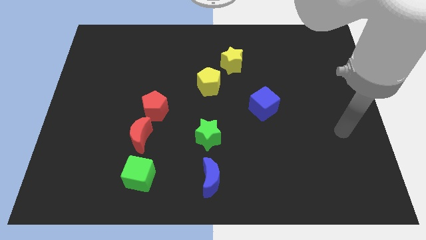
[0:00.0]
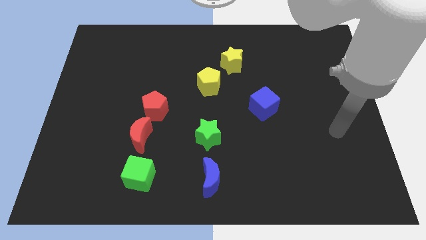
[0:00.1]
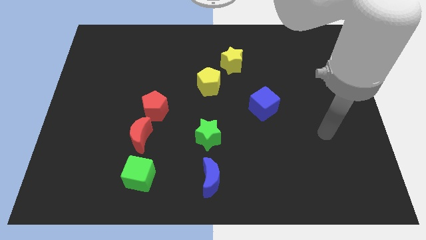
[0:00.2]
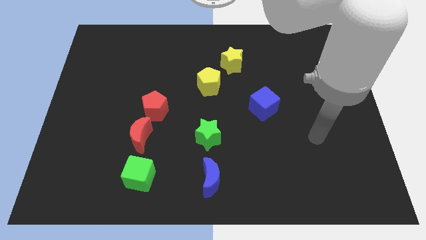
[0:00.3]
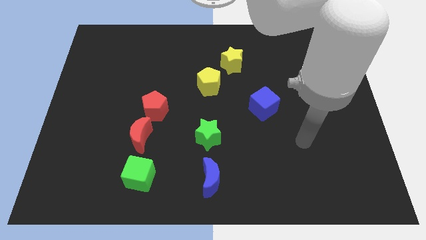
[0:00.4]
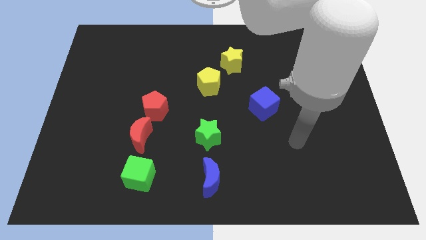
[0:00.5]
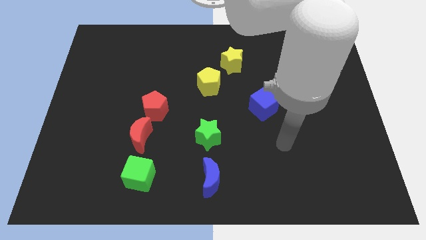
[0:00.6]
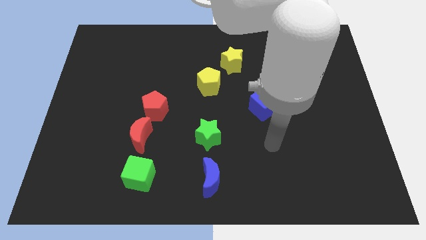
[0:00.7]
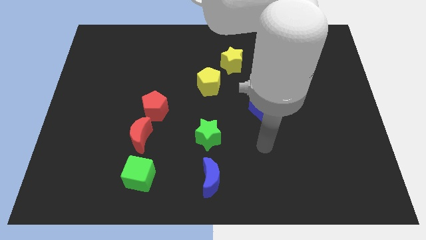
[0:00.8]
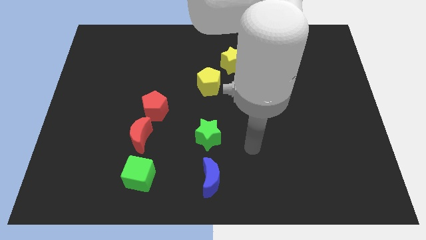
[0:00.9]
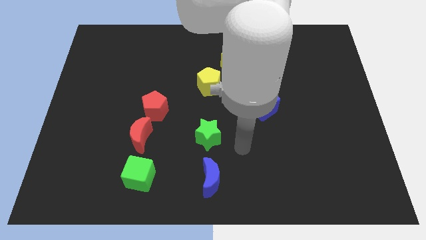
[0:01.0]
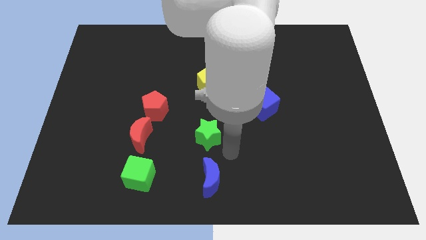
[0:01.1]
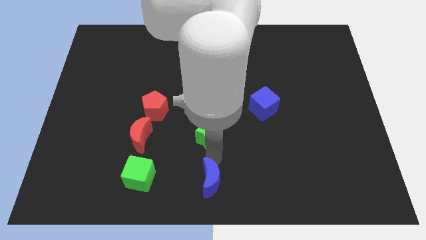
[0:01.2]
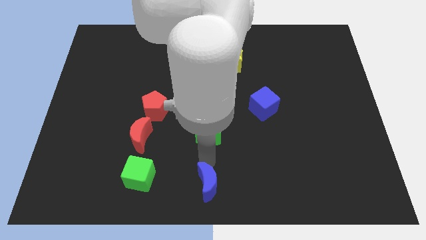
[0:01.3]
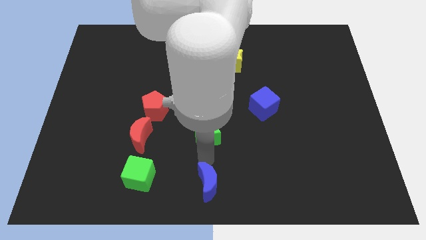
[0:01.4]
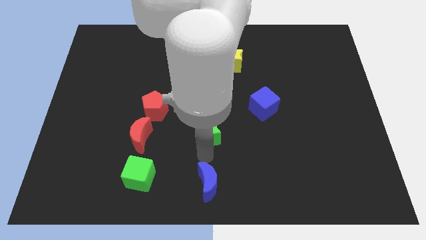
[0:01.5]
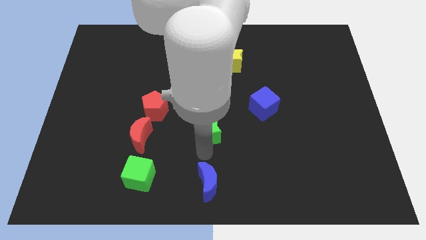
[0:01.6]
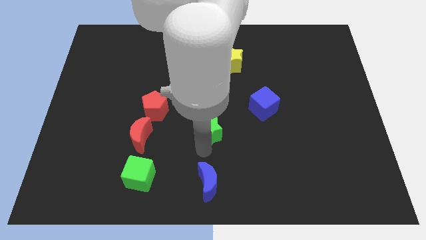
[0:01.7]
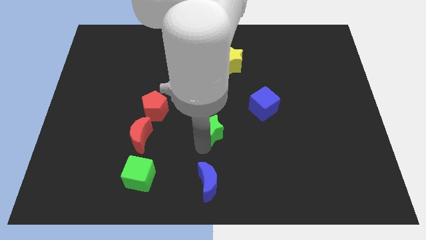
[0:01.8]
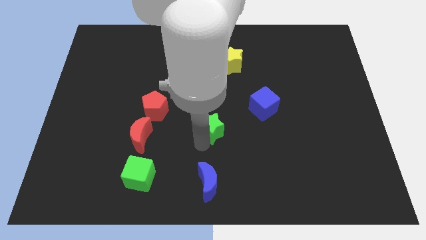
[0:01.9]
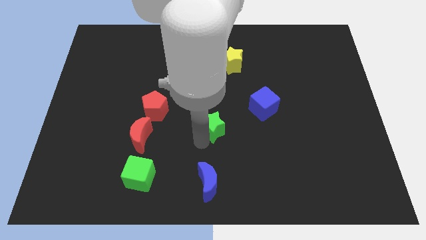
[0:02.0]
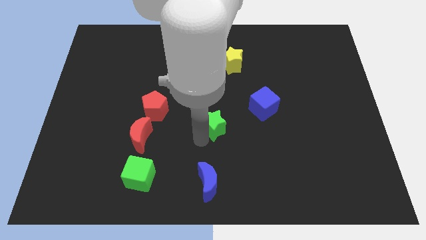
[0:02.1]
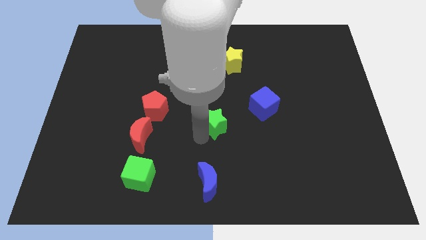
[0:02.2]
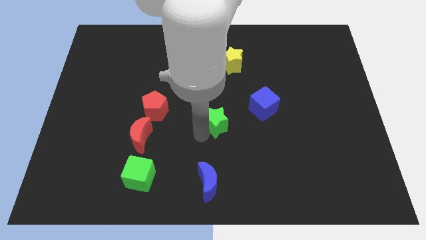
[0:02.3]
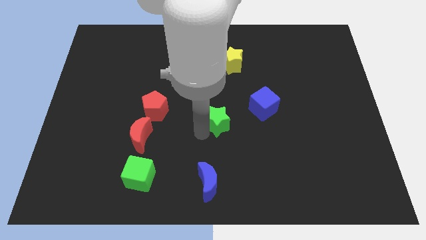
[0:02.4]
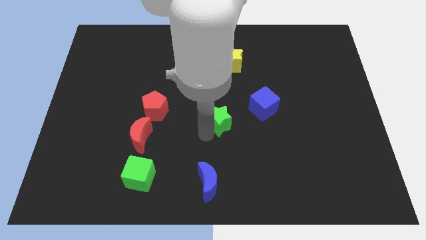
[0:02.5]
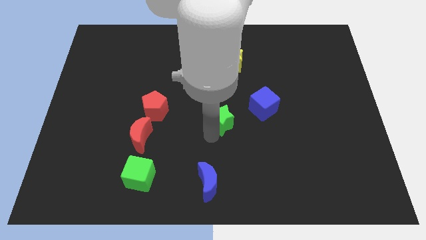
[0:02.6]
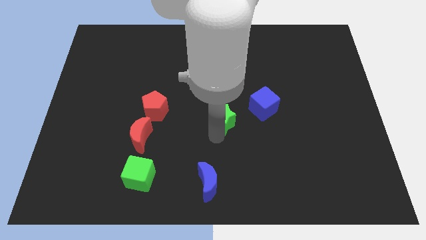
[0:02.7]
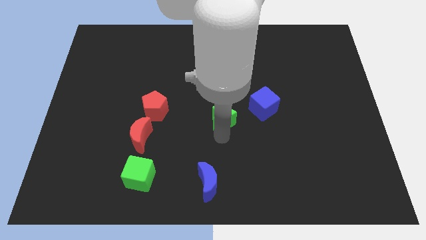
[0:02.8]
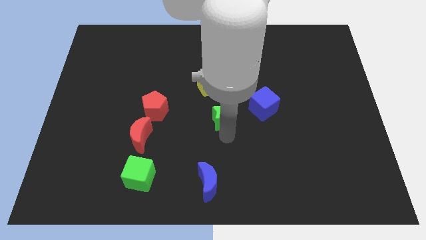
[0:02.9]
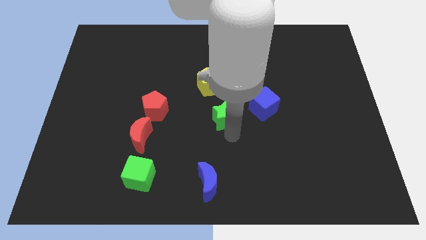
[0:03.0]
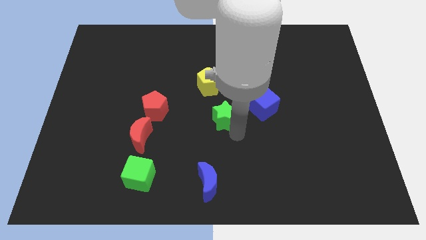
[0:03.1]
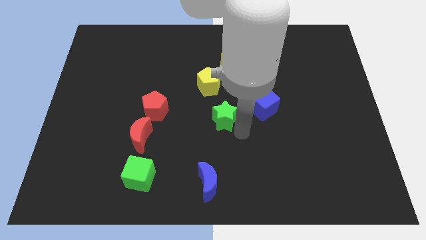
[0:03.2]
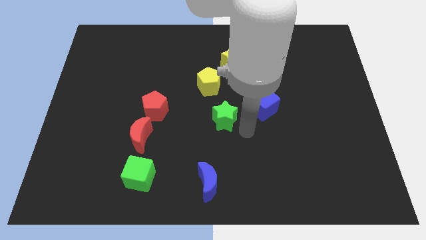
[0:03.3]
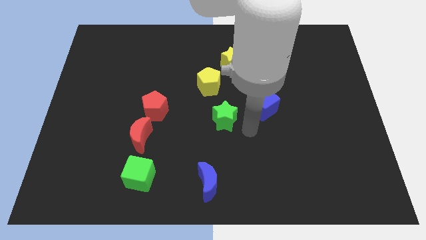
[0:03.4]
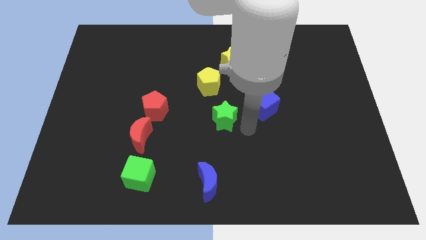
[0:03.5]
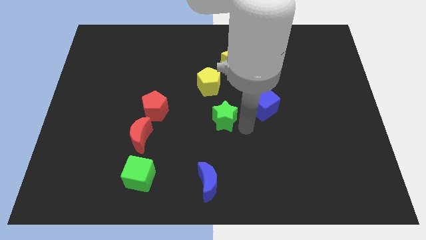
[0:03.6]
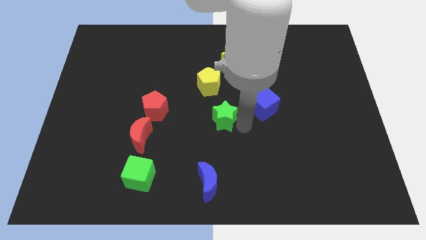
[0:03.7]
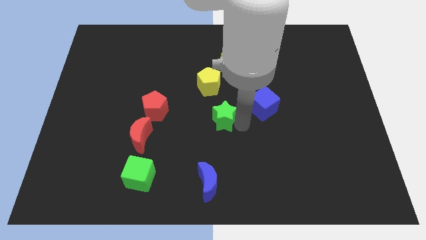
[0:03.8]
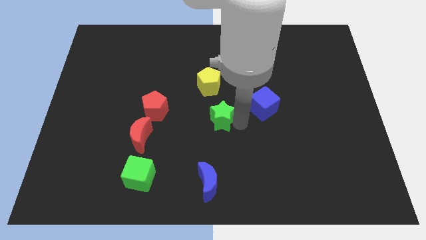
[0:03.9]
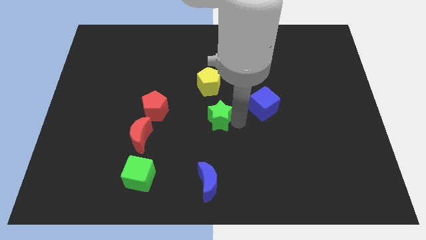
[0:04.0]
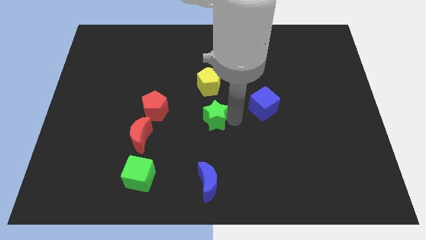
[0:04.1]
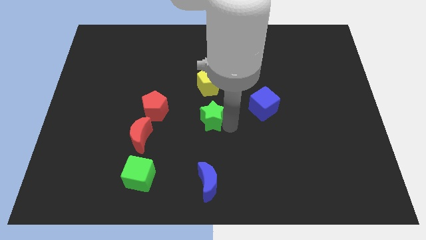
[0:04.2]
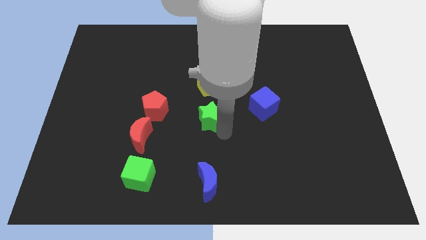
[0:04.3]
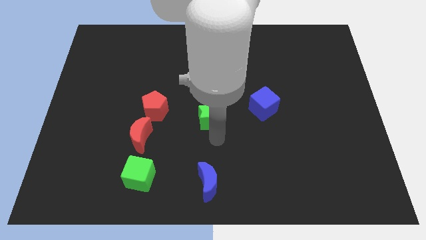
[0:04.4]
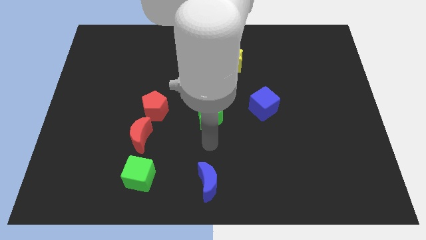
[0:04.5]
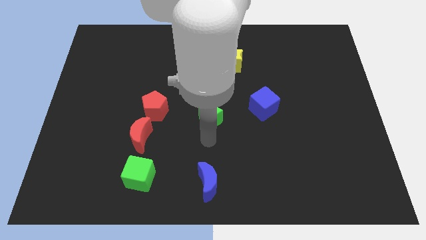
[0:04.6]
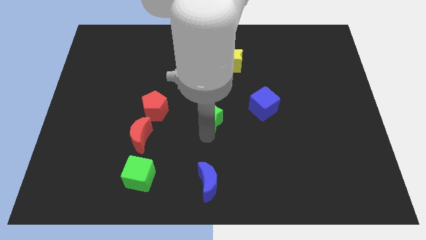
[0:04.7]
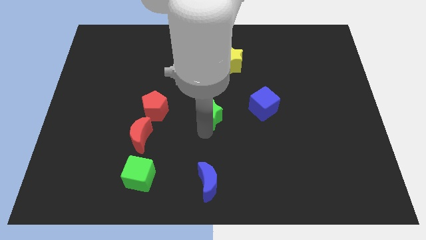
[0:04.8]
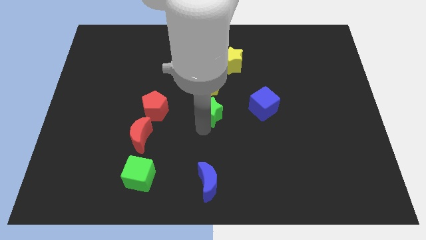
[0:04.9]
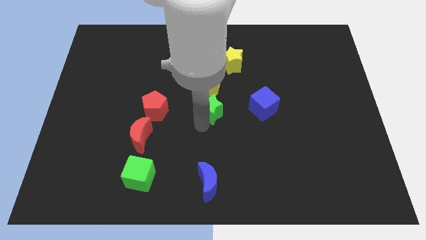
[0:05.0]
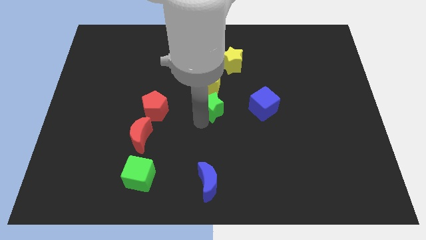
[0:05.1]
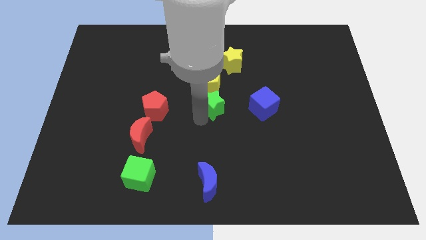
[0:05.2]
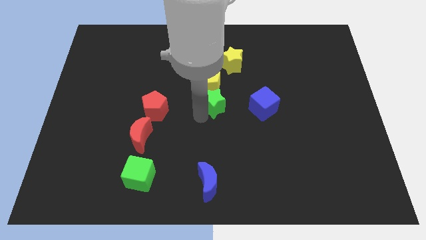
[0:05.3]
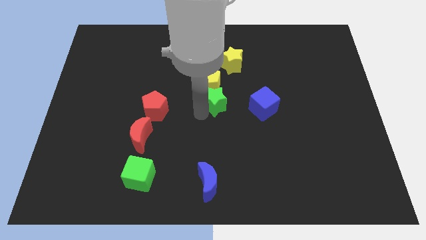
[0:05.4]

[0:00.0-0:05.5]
move the green star next to the yellow pentagon

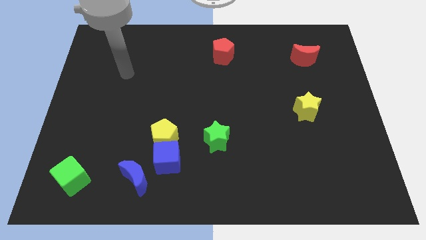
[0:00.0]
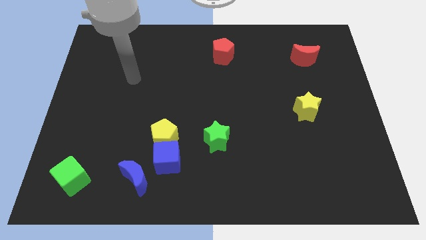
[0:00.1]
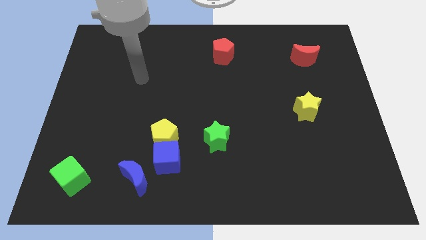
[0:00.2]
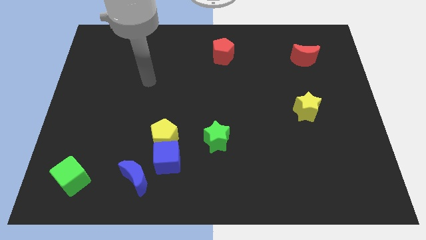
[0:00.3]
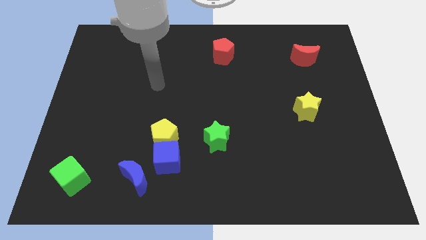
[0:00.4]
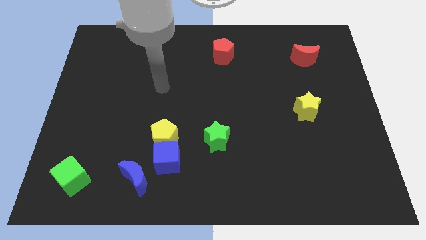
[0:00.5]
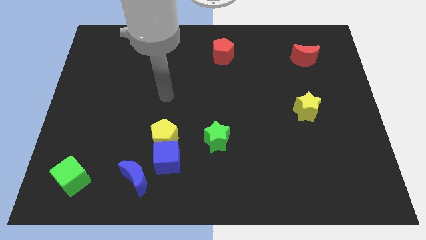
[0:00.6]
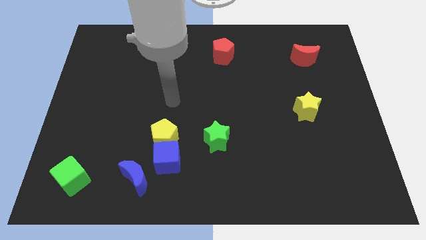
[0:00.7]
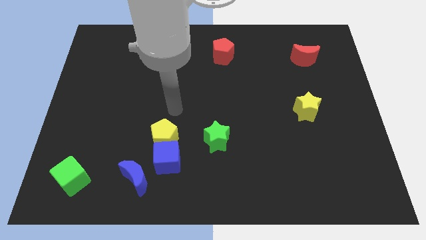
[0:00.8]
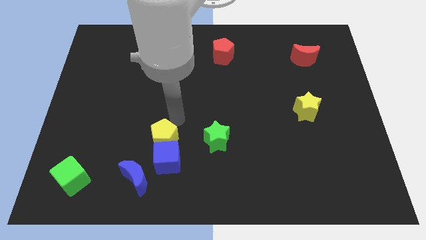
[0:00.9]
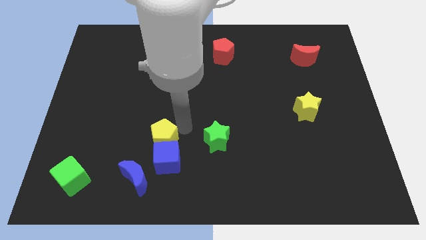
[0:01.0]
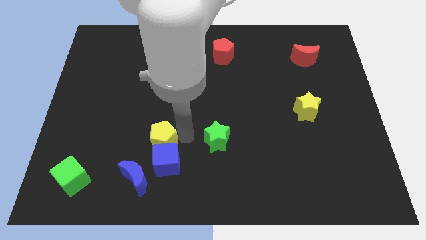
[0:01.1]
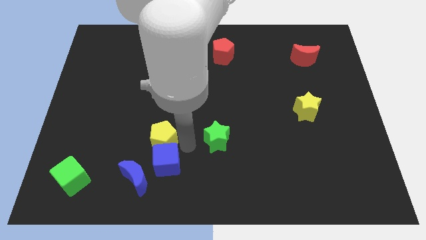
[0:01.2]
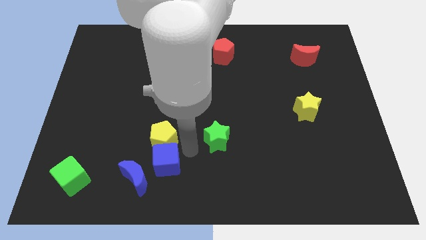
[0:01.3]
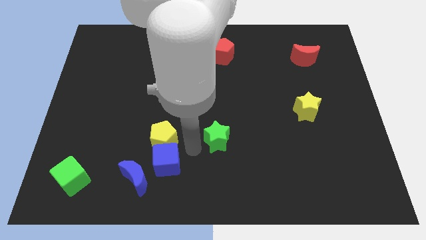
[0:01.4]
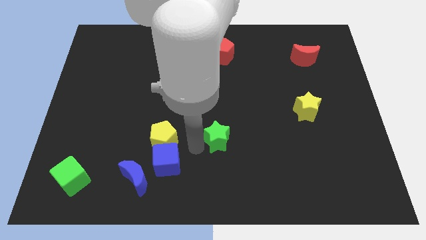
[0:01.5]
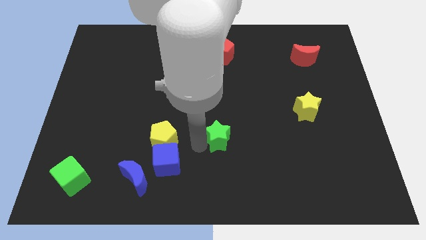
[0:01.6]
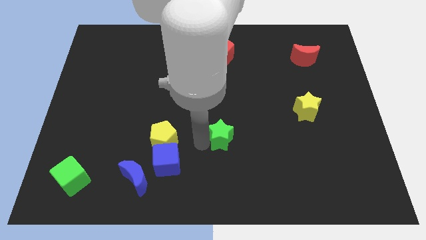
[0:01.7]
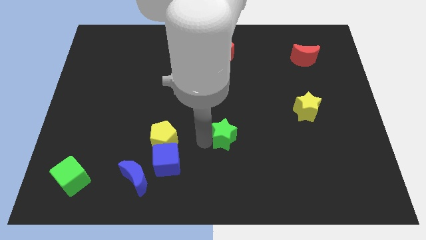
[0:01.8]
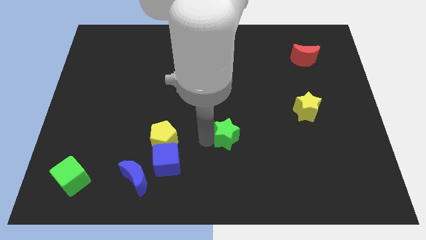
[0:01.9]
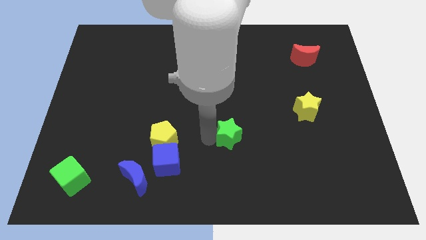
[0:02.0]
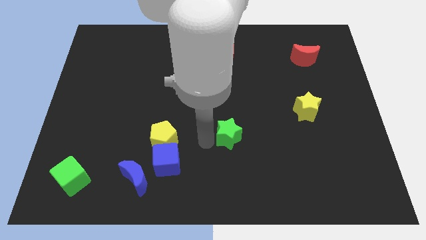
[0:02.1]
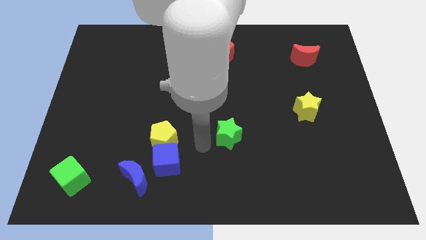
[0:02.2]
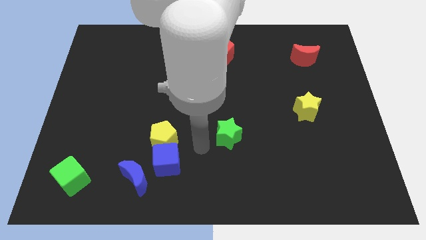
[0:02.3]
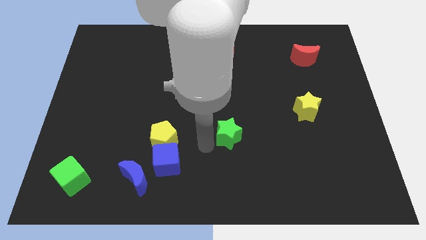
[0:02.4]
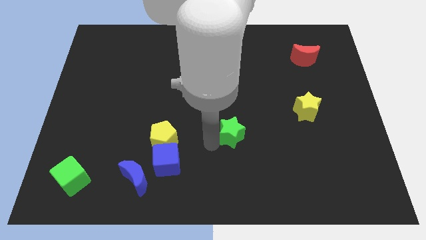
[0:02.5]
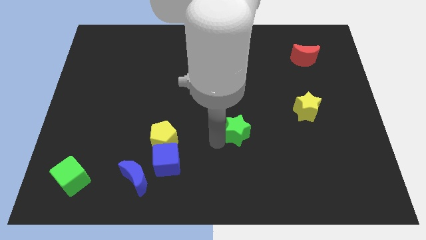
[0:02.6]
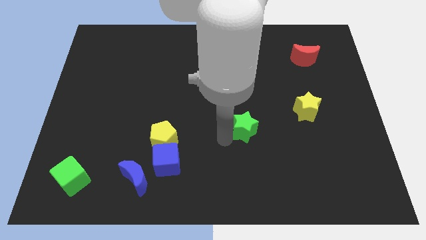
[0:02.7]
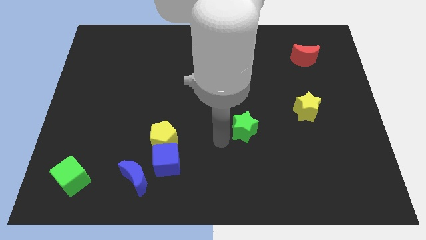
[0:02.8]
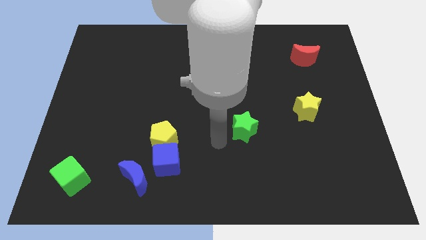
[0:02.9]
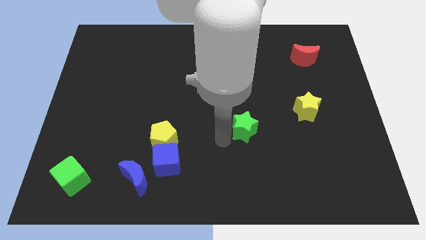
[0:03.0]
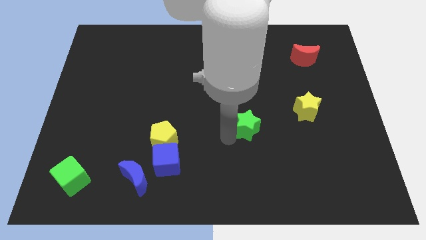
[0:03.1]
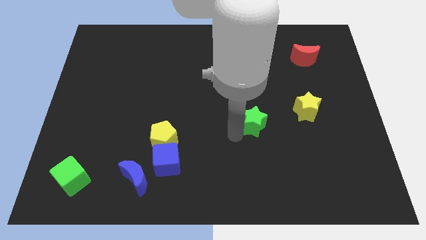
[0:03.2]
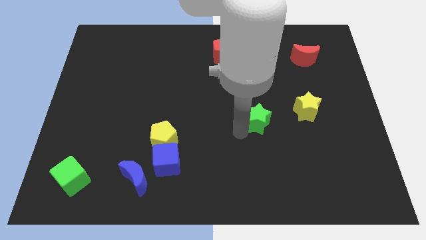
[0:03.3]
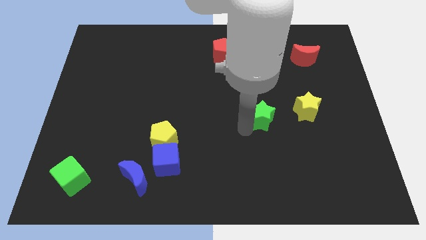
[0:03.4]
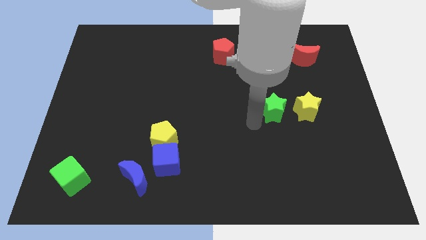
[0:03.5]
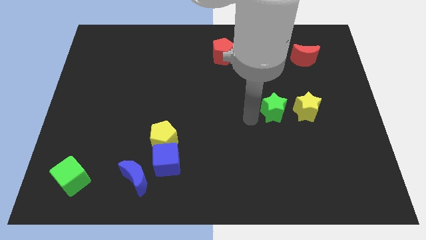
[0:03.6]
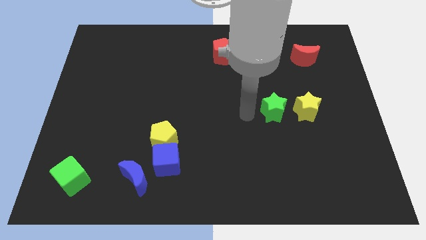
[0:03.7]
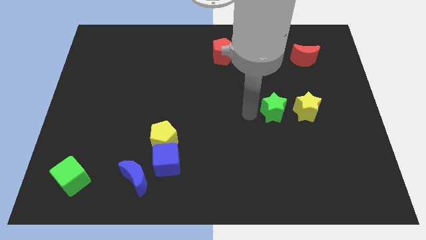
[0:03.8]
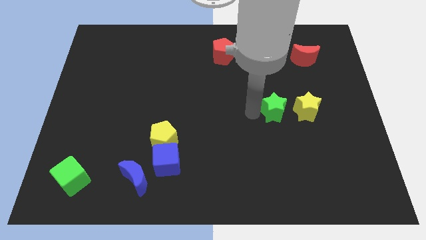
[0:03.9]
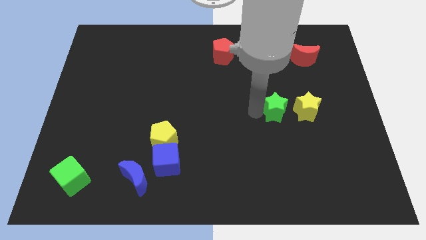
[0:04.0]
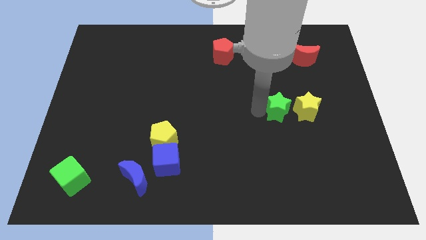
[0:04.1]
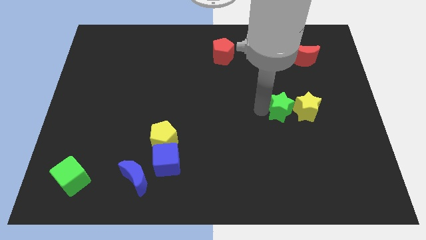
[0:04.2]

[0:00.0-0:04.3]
slide the green star close to the yellow star
